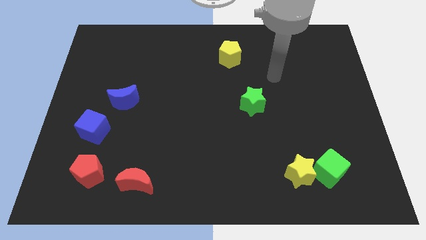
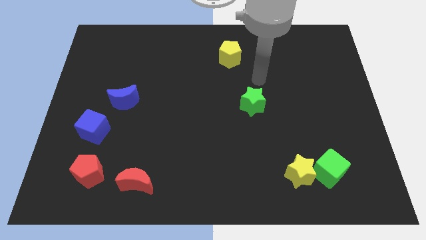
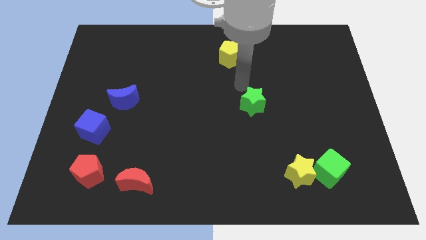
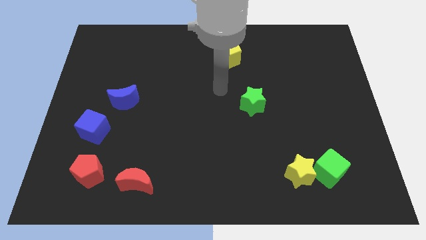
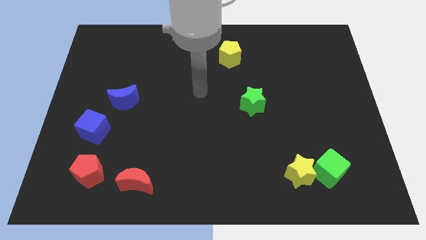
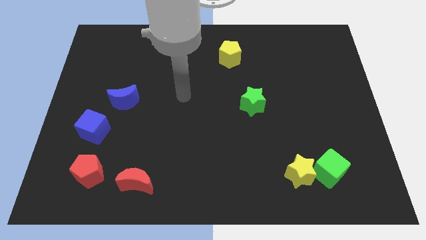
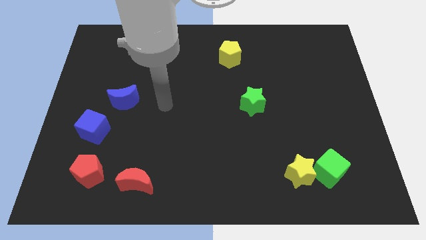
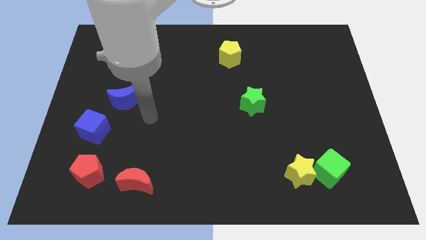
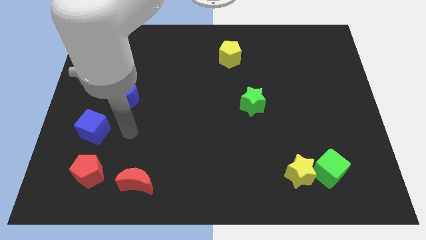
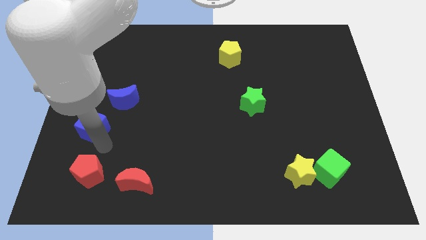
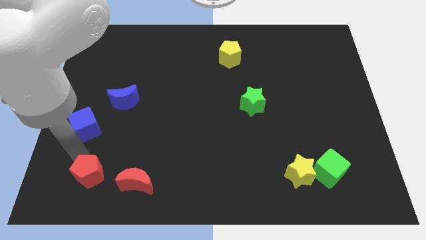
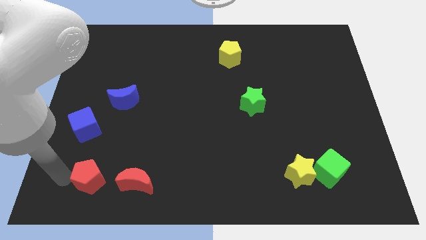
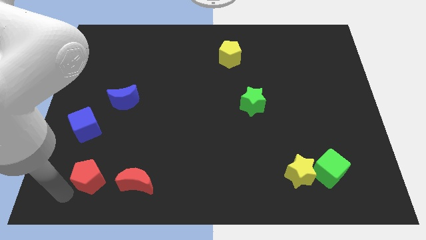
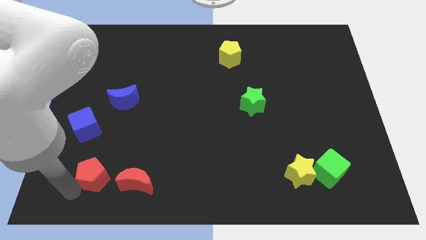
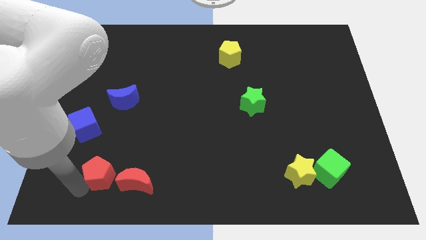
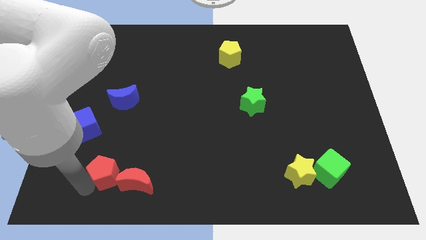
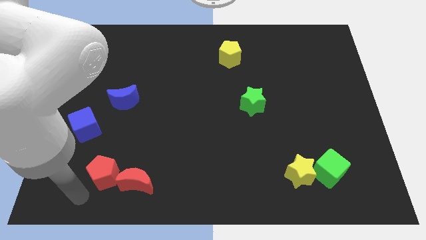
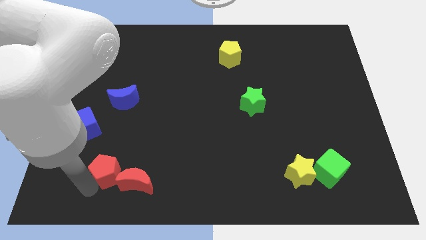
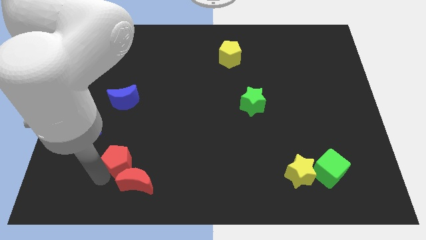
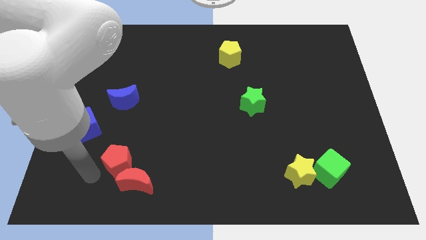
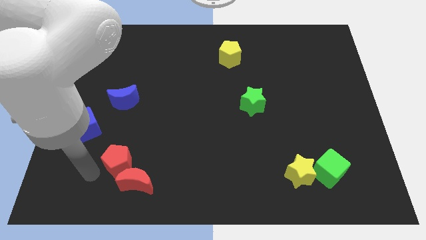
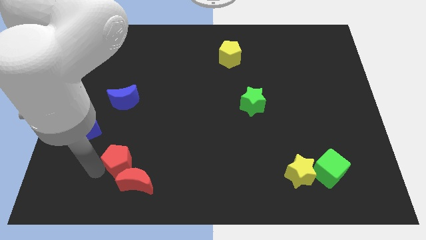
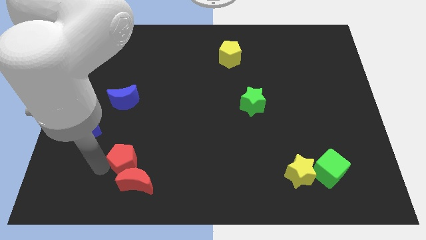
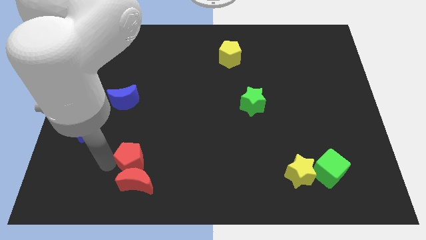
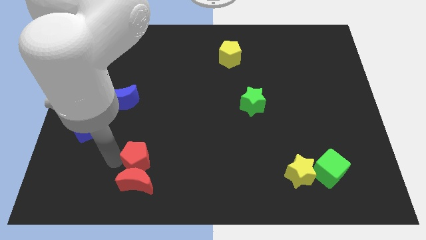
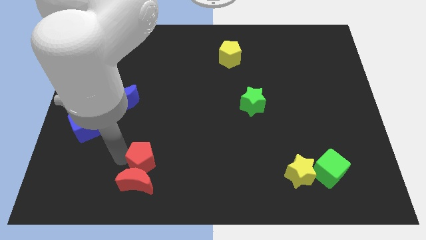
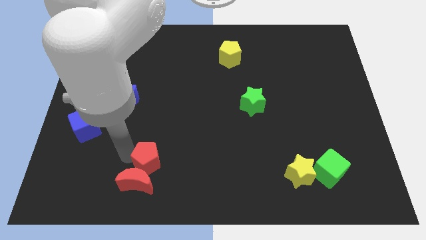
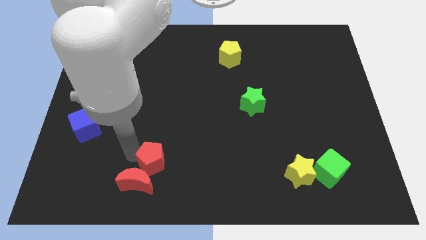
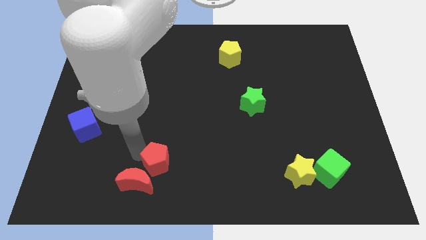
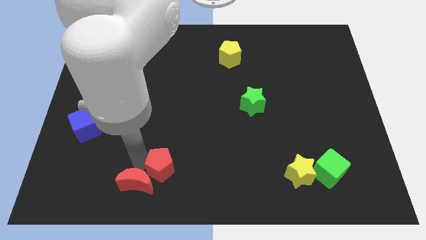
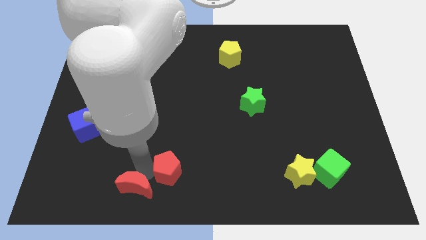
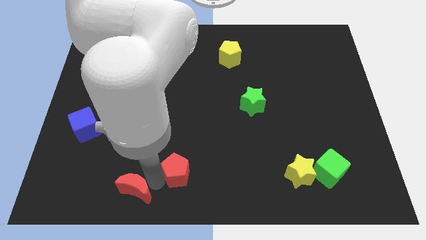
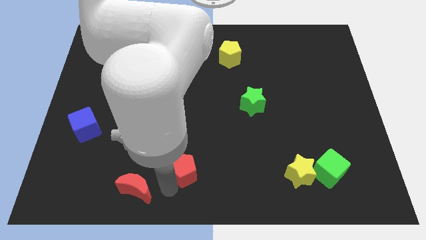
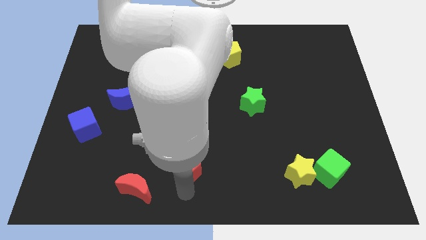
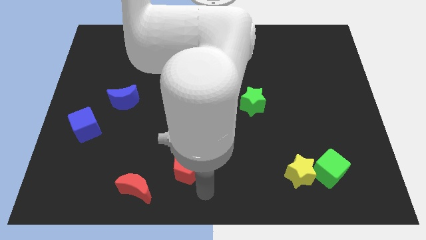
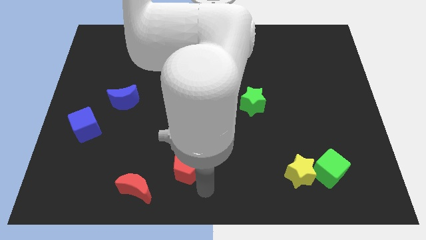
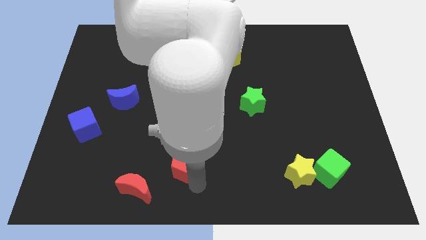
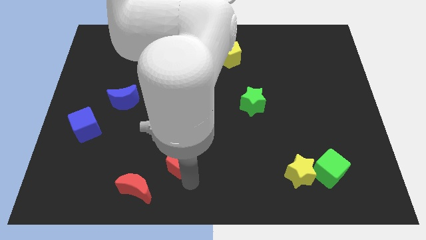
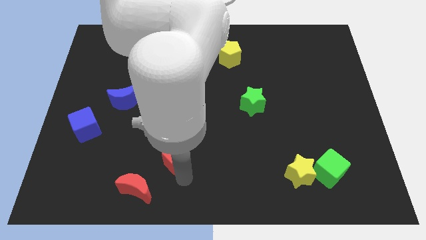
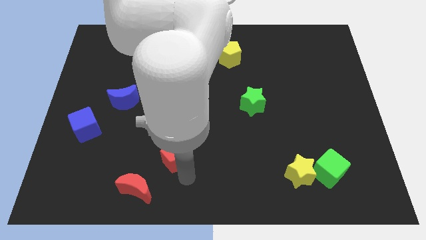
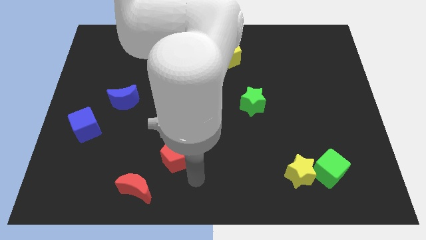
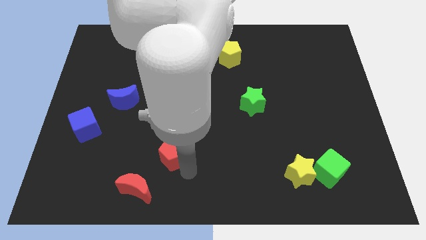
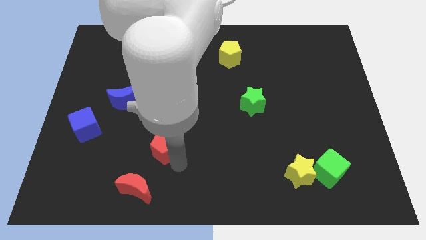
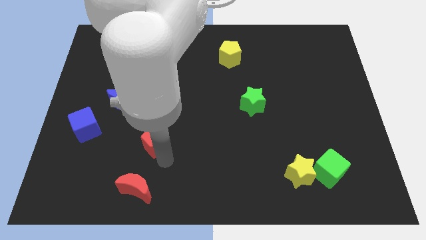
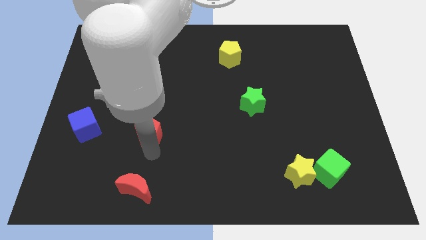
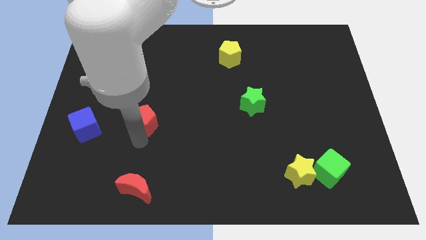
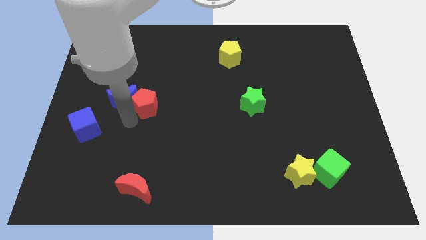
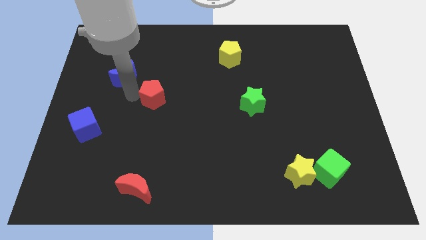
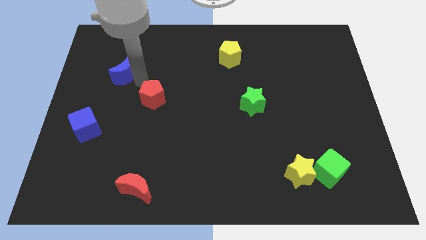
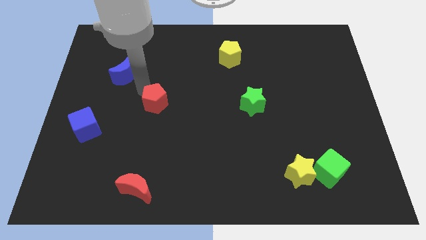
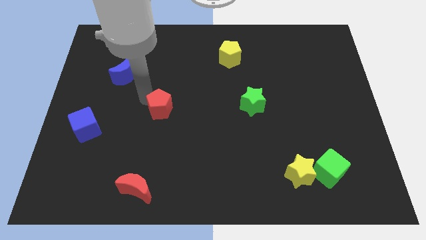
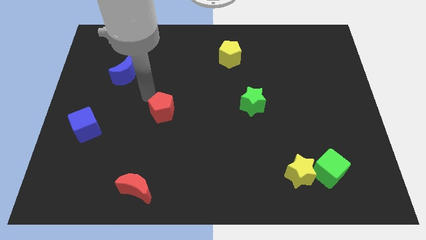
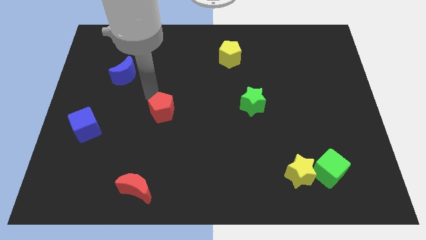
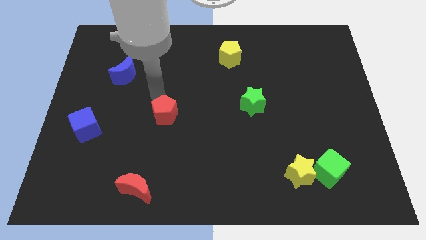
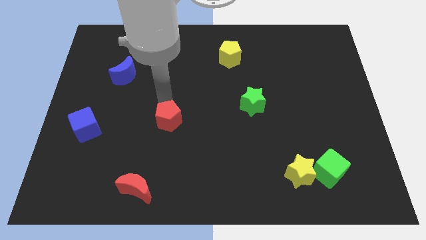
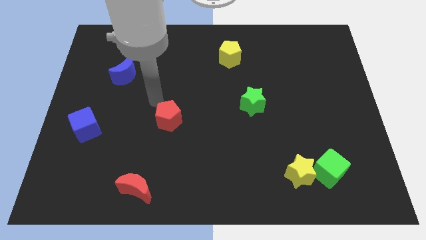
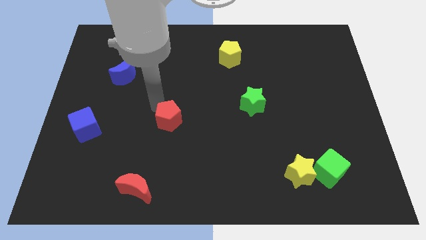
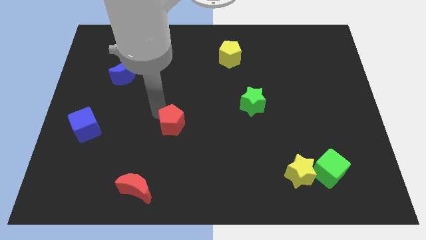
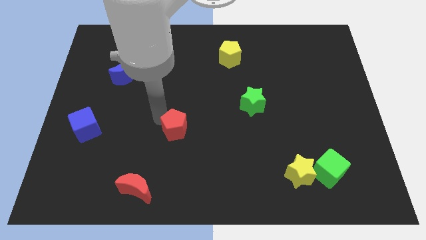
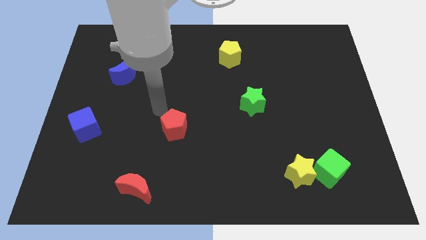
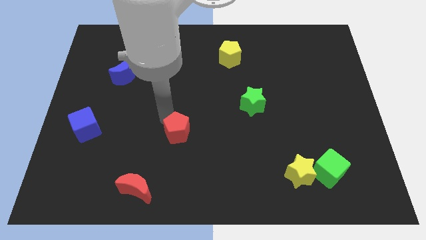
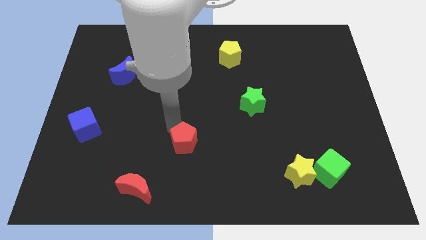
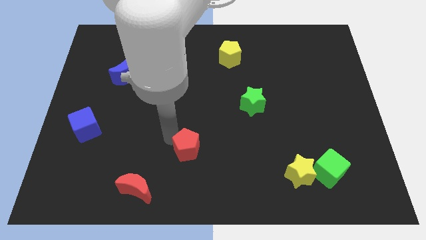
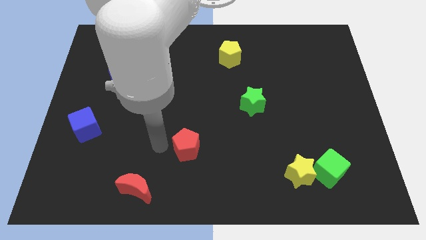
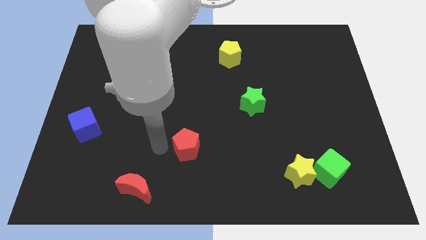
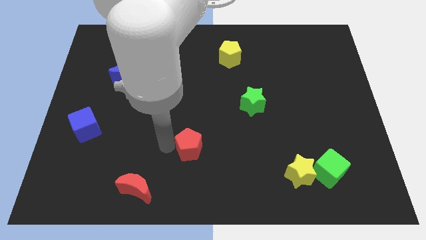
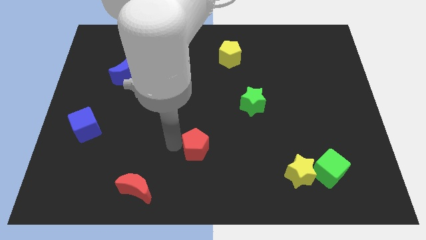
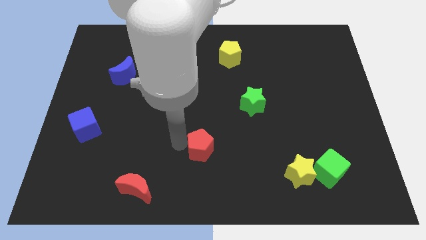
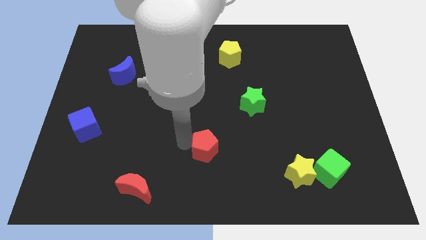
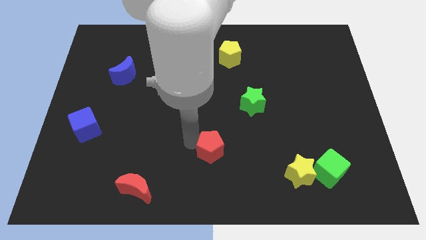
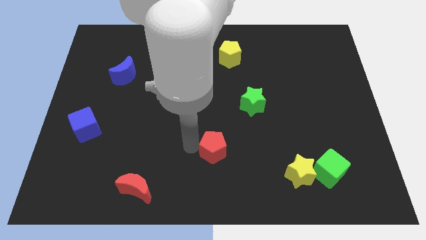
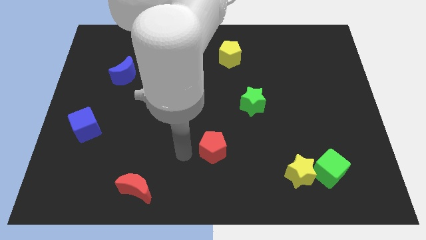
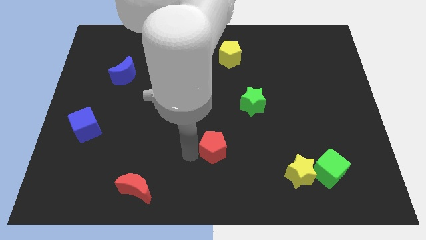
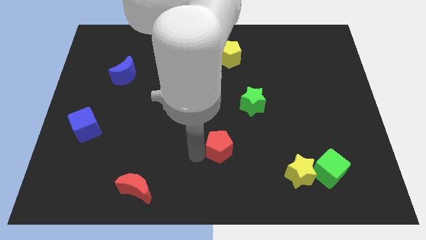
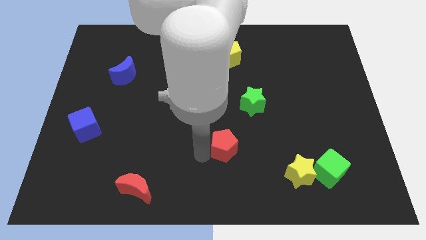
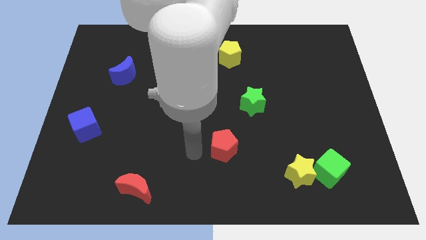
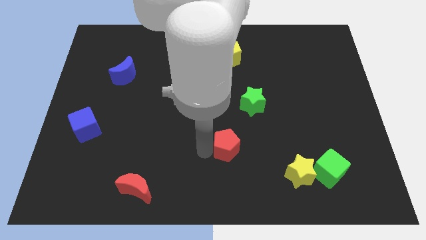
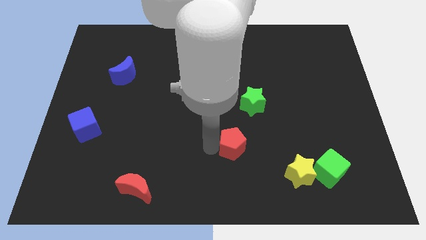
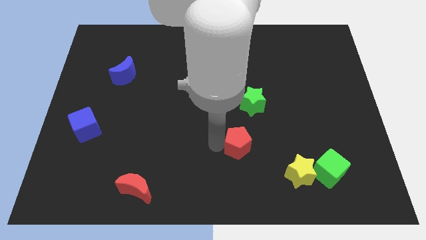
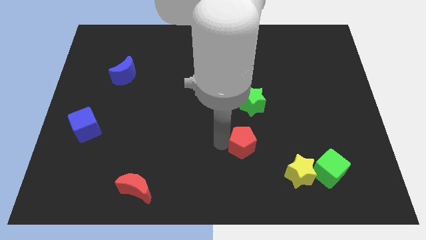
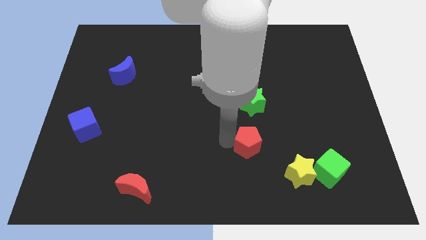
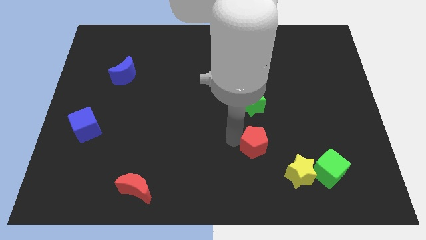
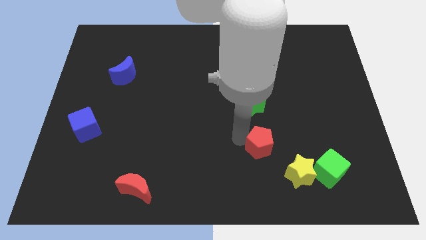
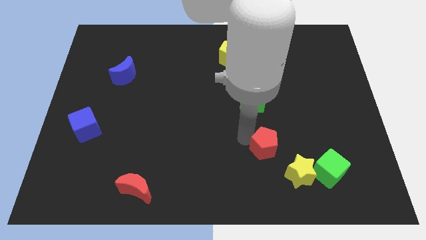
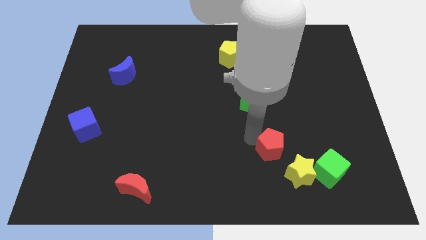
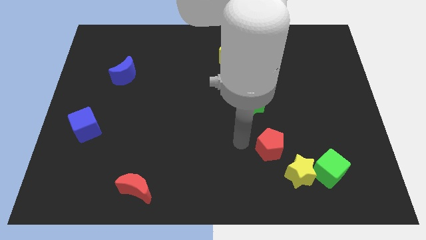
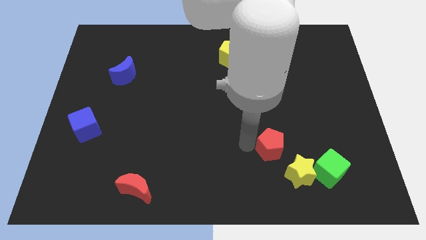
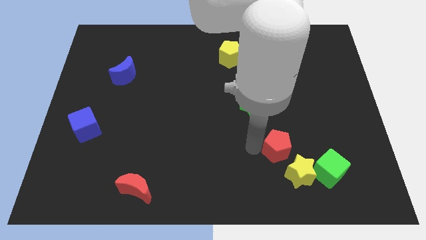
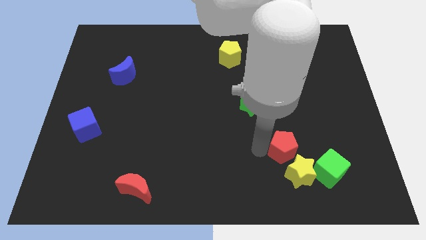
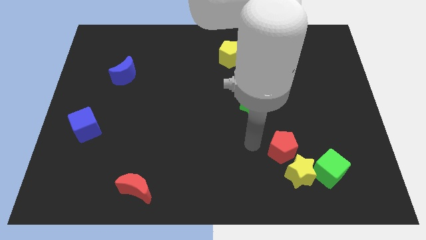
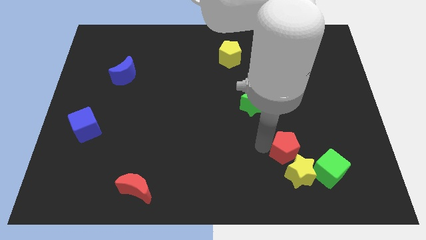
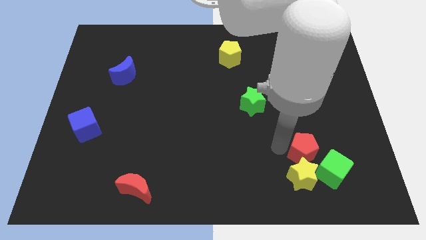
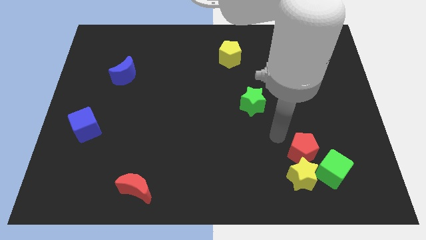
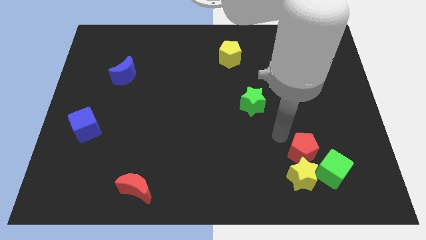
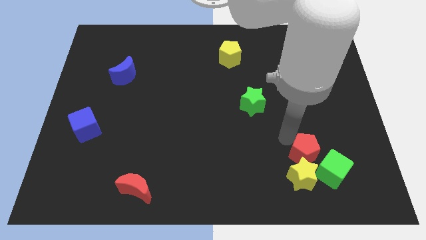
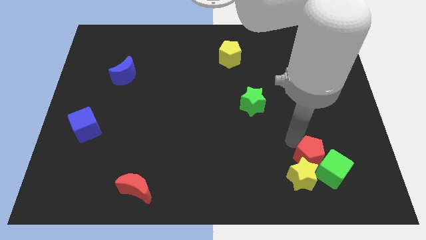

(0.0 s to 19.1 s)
push the red pentagon to the green cube
